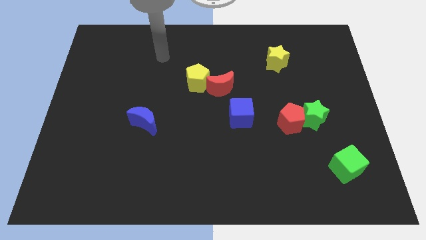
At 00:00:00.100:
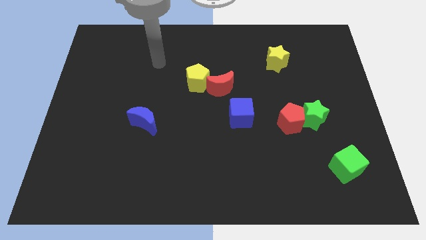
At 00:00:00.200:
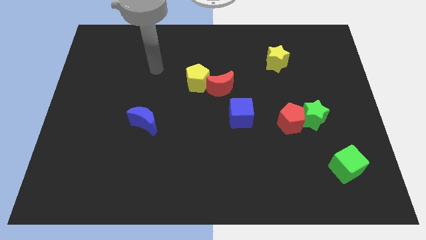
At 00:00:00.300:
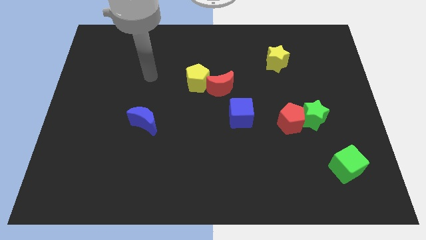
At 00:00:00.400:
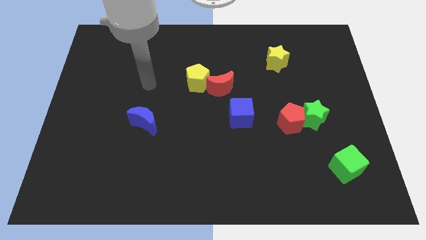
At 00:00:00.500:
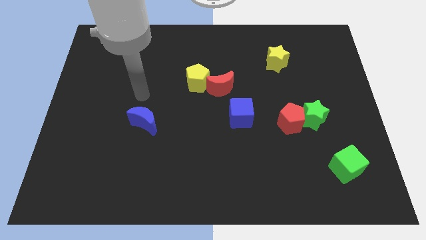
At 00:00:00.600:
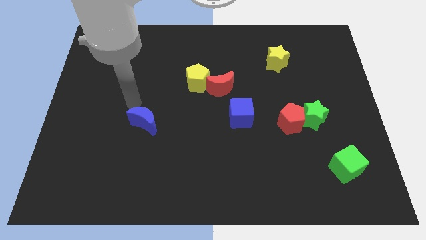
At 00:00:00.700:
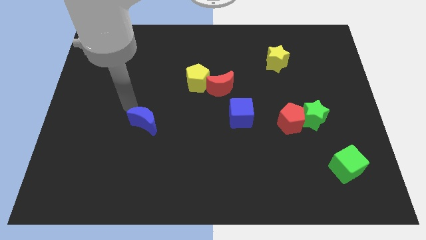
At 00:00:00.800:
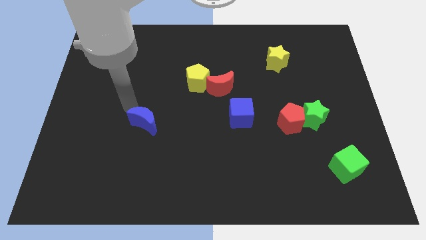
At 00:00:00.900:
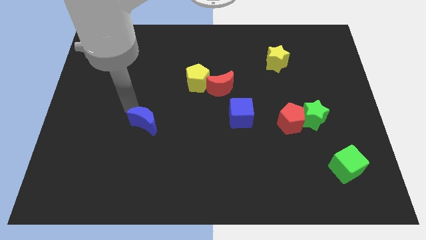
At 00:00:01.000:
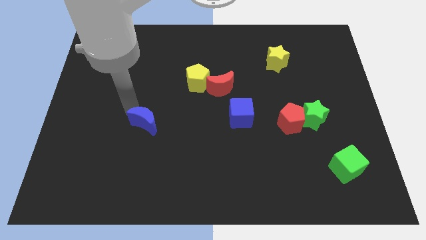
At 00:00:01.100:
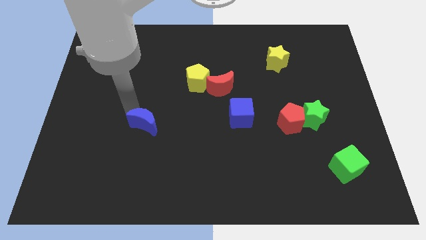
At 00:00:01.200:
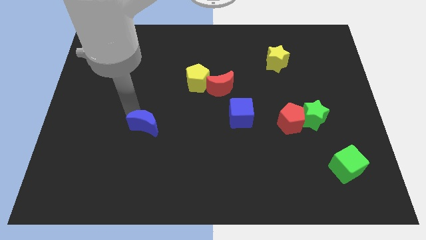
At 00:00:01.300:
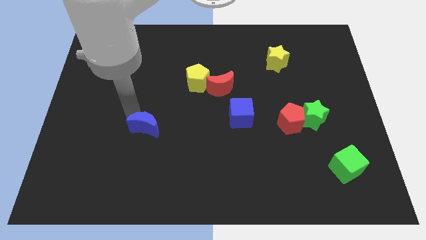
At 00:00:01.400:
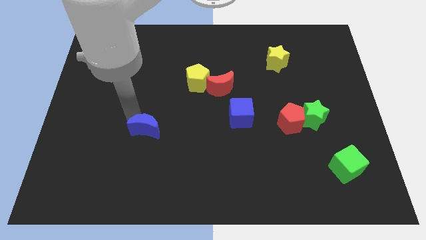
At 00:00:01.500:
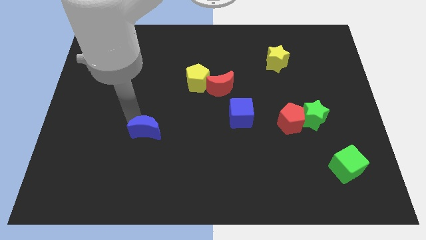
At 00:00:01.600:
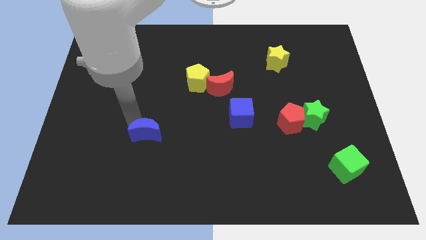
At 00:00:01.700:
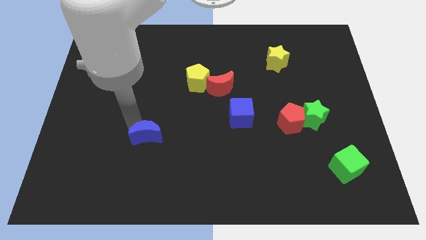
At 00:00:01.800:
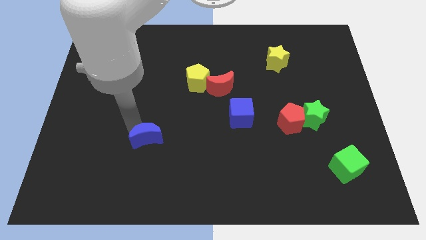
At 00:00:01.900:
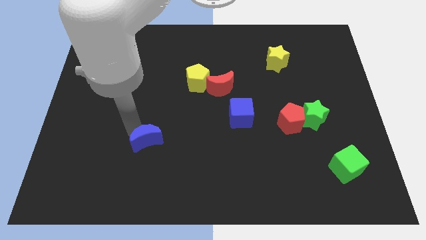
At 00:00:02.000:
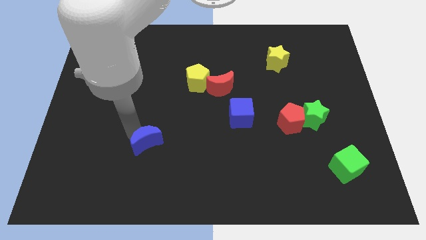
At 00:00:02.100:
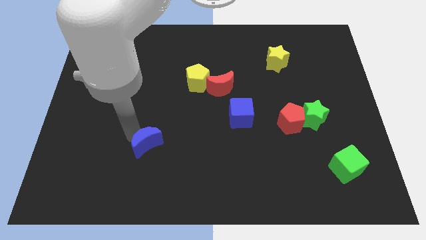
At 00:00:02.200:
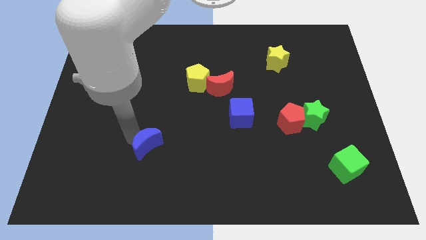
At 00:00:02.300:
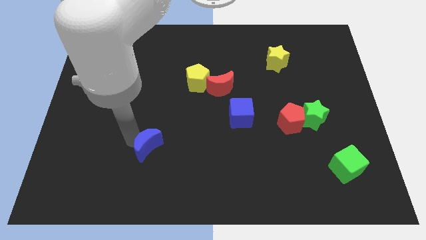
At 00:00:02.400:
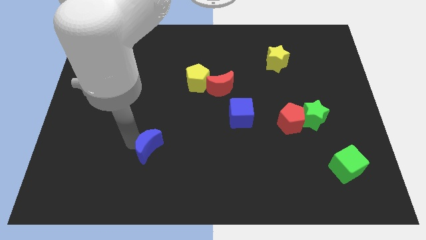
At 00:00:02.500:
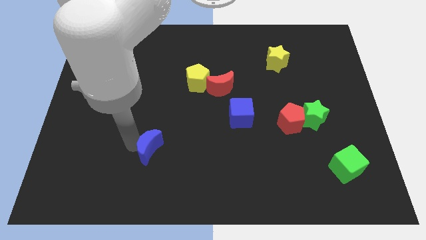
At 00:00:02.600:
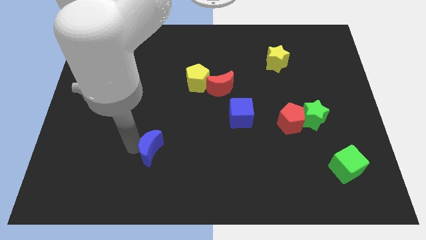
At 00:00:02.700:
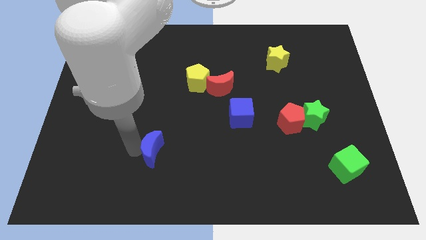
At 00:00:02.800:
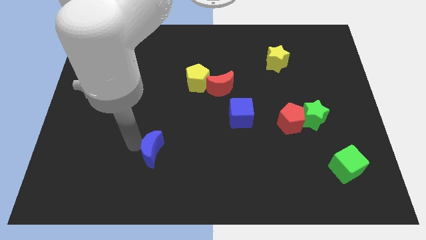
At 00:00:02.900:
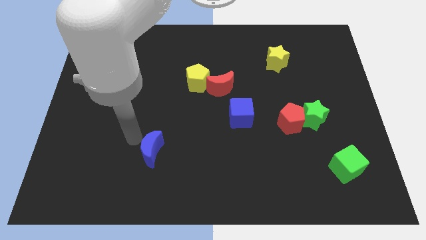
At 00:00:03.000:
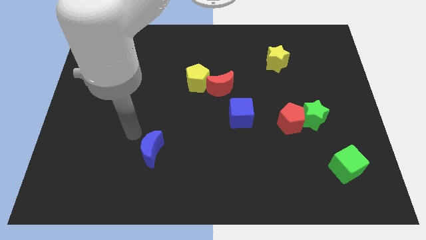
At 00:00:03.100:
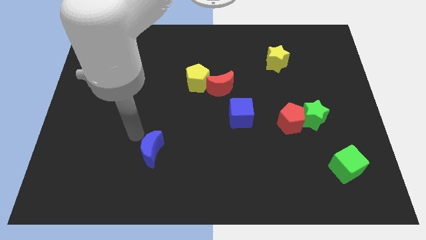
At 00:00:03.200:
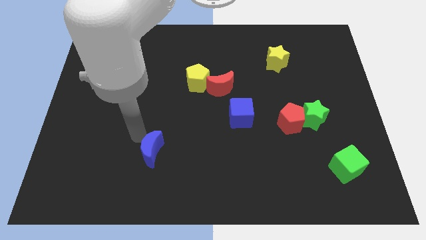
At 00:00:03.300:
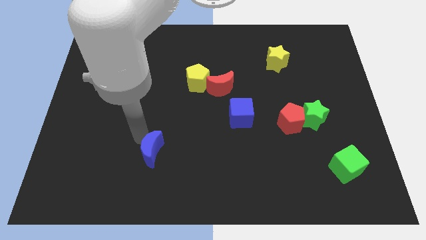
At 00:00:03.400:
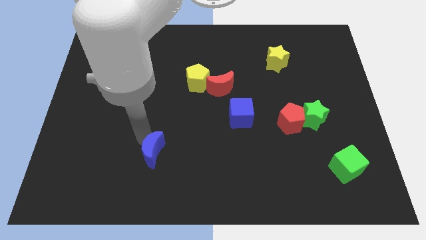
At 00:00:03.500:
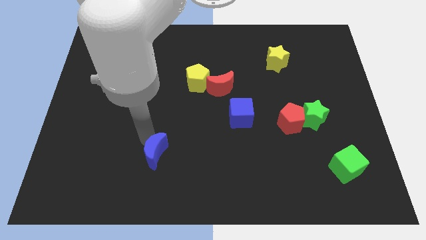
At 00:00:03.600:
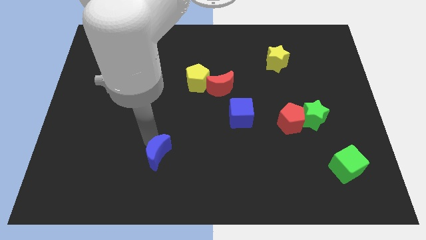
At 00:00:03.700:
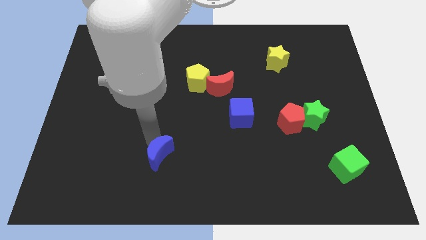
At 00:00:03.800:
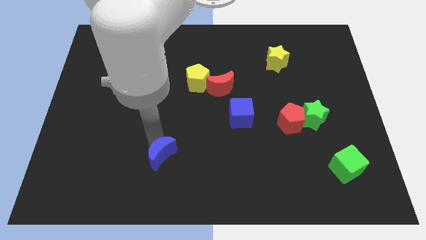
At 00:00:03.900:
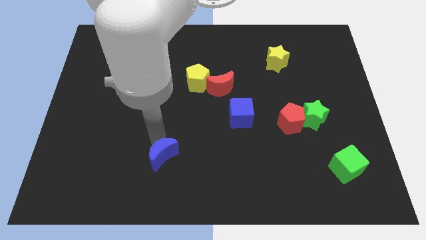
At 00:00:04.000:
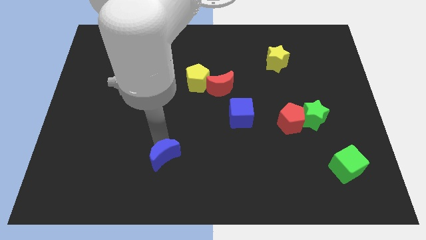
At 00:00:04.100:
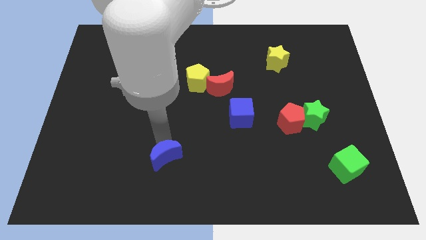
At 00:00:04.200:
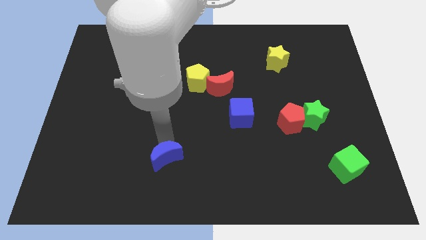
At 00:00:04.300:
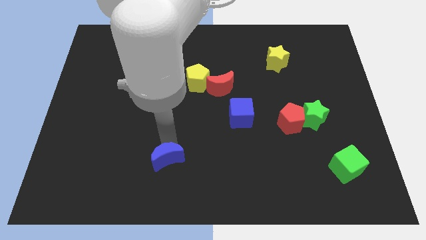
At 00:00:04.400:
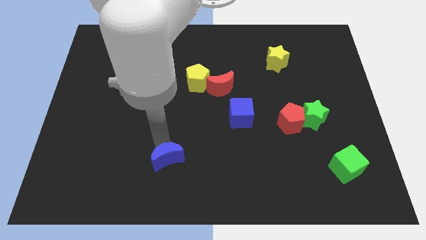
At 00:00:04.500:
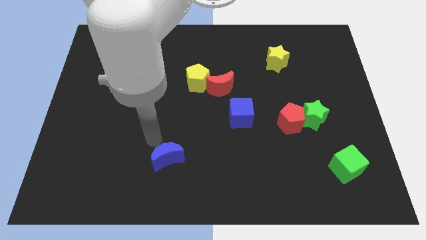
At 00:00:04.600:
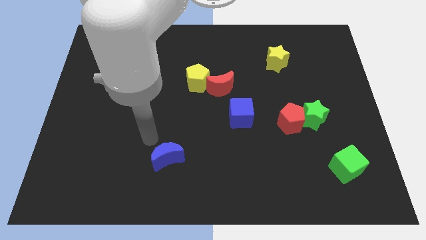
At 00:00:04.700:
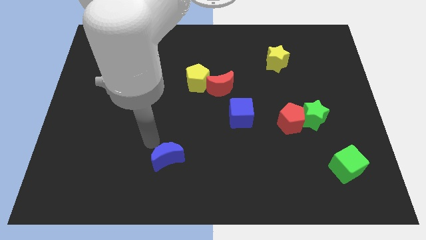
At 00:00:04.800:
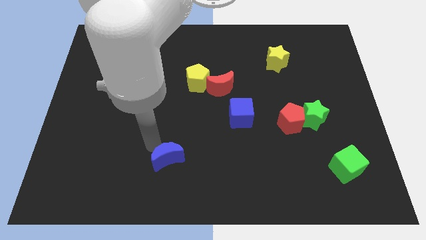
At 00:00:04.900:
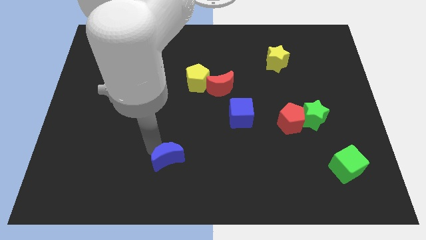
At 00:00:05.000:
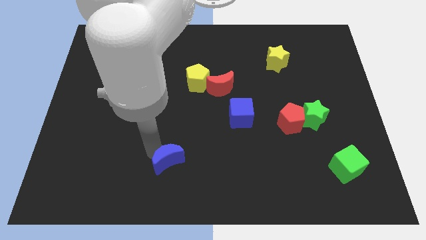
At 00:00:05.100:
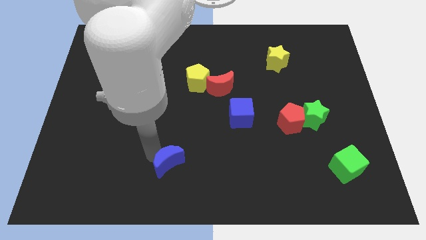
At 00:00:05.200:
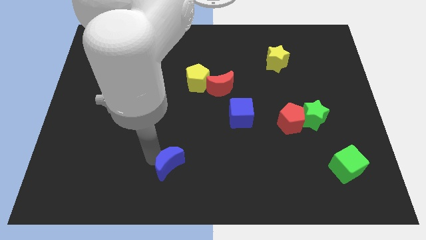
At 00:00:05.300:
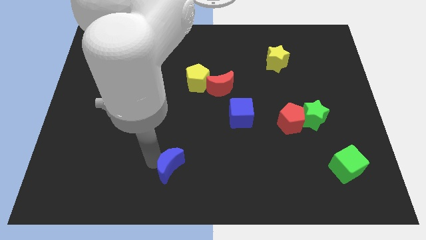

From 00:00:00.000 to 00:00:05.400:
move the blue moon to the bottom side

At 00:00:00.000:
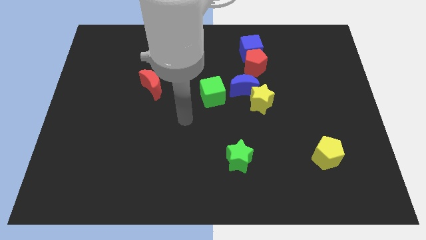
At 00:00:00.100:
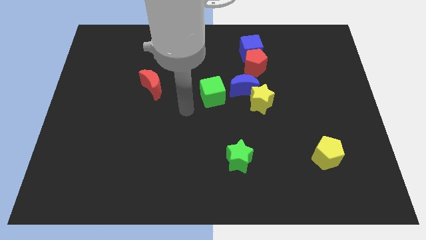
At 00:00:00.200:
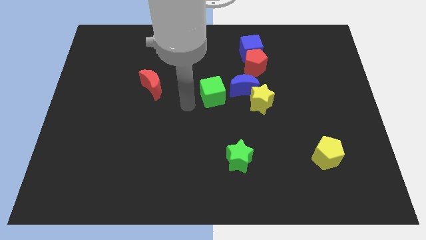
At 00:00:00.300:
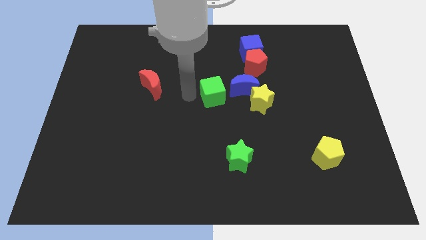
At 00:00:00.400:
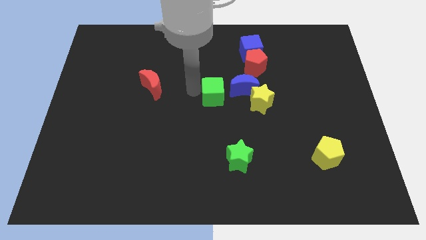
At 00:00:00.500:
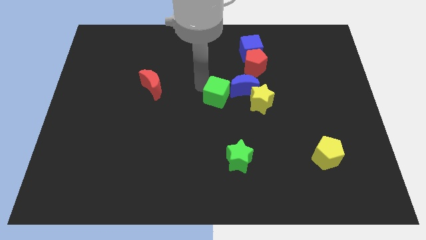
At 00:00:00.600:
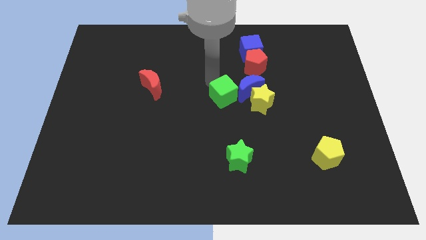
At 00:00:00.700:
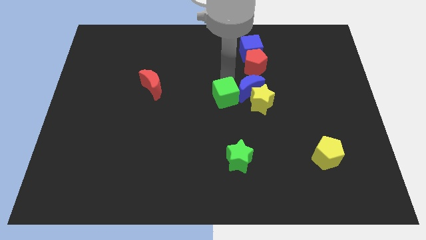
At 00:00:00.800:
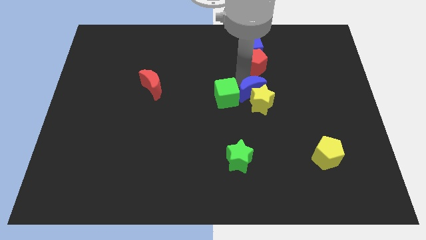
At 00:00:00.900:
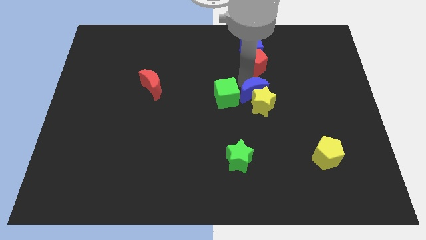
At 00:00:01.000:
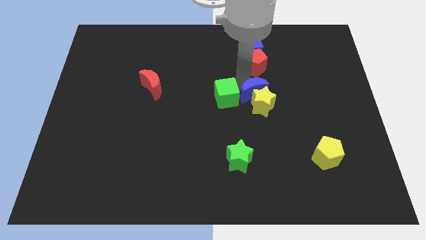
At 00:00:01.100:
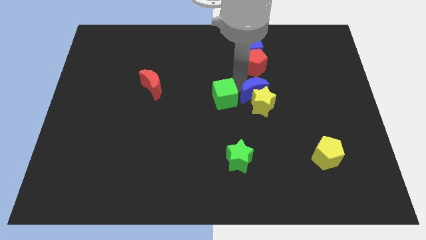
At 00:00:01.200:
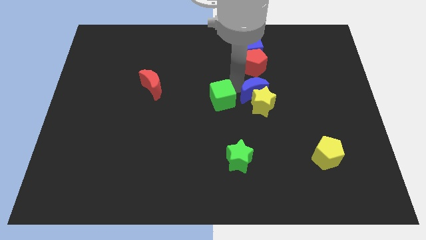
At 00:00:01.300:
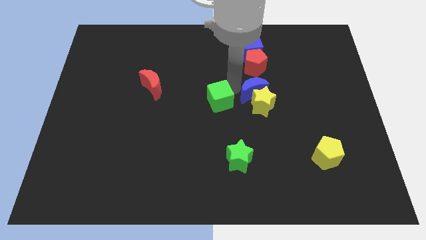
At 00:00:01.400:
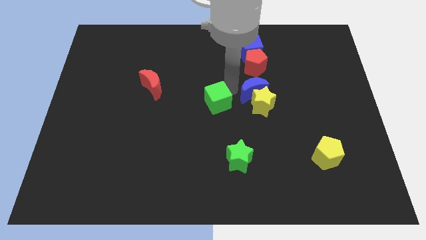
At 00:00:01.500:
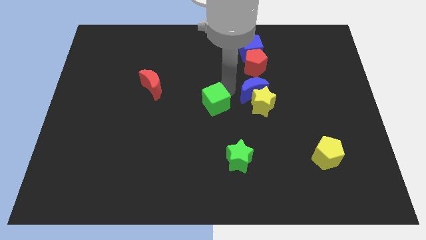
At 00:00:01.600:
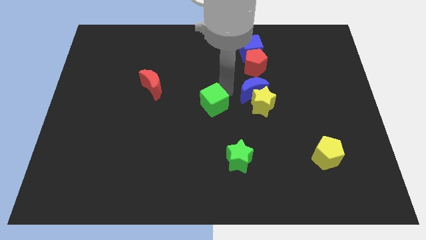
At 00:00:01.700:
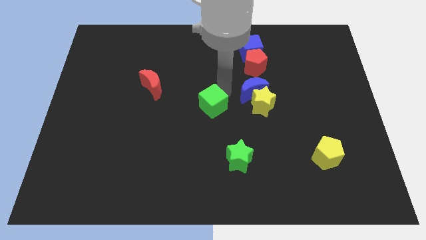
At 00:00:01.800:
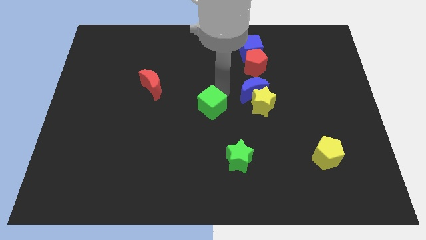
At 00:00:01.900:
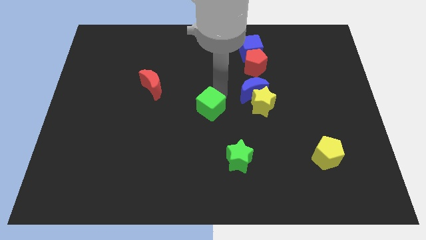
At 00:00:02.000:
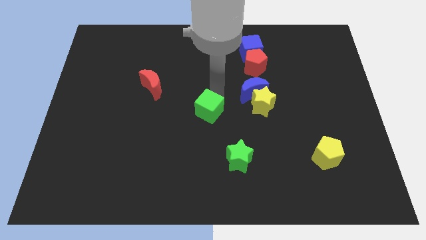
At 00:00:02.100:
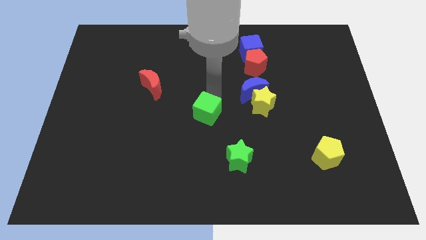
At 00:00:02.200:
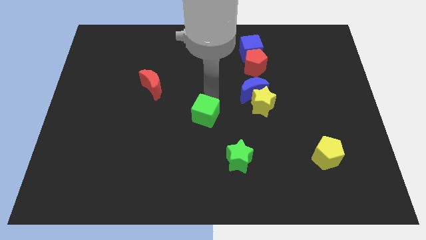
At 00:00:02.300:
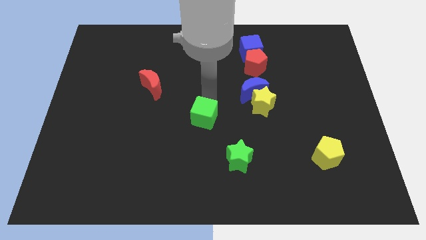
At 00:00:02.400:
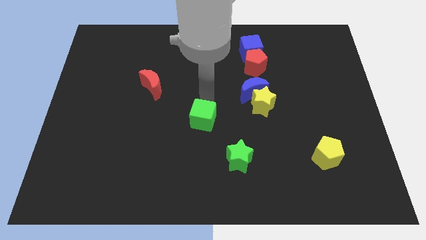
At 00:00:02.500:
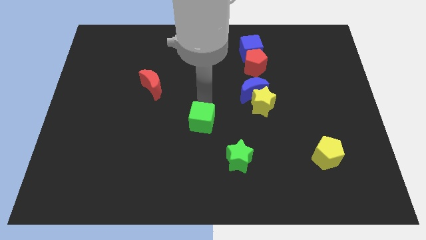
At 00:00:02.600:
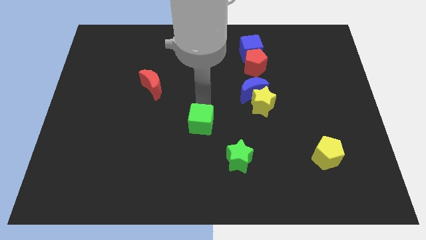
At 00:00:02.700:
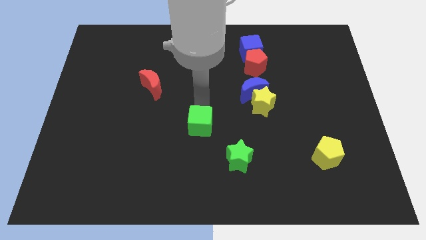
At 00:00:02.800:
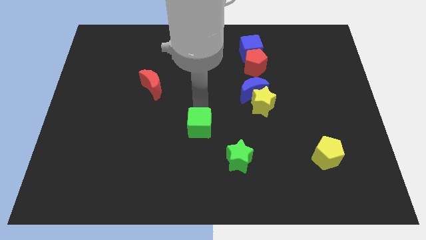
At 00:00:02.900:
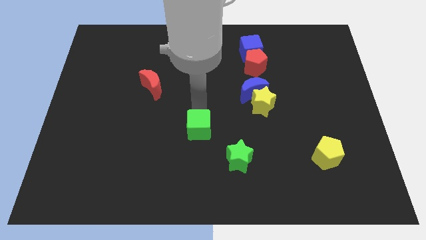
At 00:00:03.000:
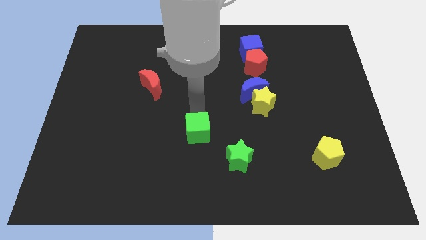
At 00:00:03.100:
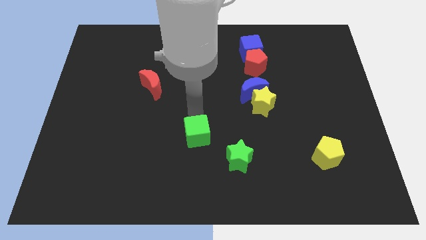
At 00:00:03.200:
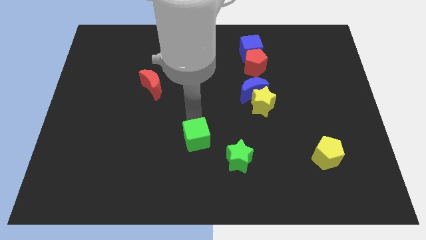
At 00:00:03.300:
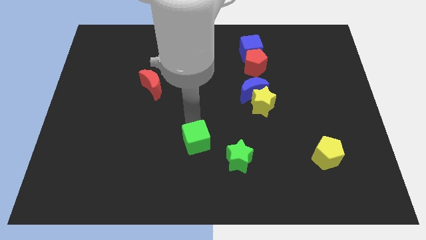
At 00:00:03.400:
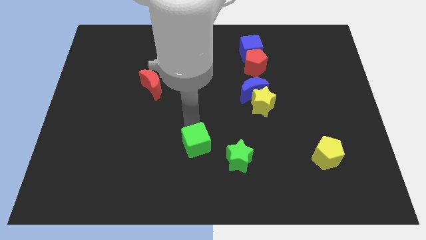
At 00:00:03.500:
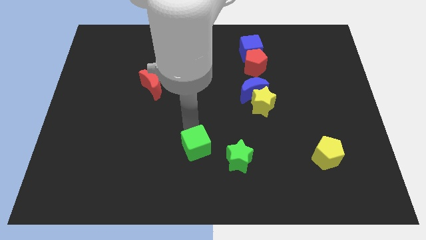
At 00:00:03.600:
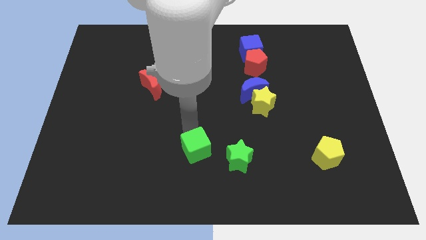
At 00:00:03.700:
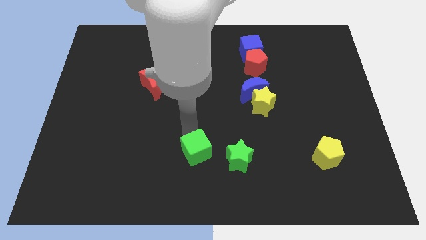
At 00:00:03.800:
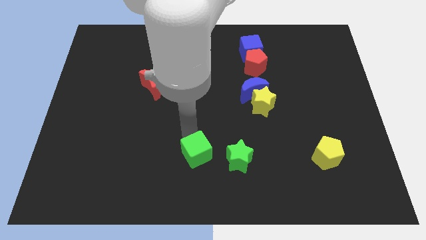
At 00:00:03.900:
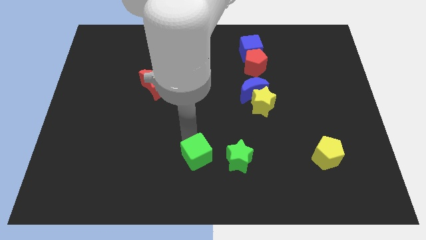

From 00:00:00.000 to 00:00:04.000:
push the green cube to the bottom side
